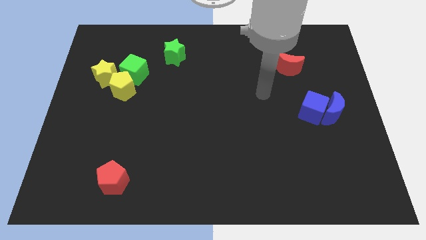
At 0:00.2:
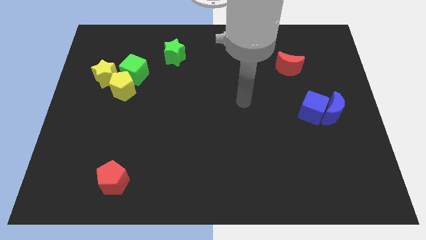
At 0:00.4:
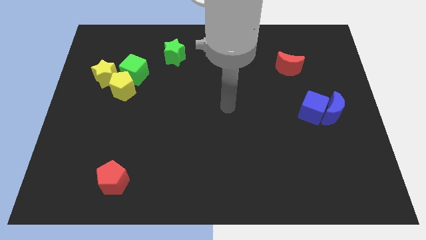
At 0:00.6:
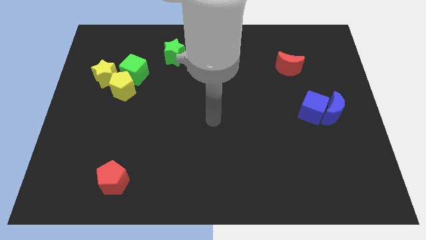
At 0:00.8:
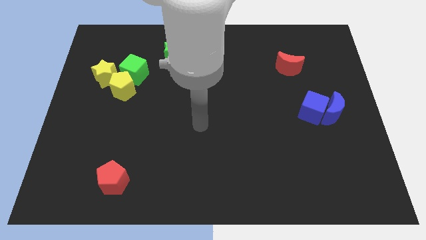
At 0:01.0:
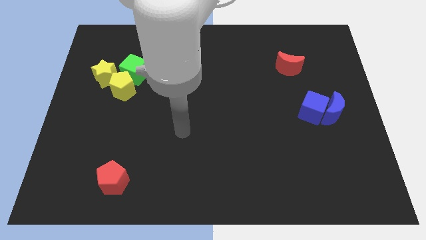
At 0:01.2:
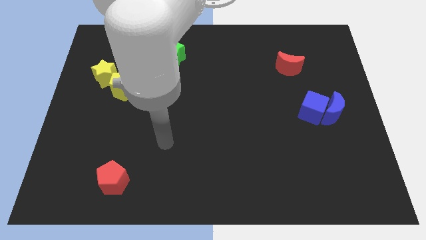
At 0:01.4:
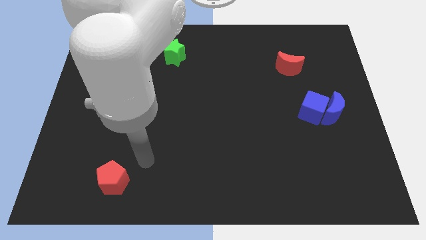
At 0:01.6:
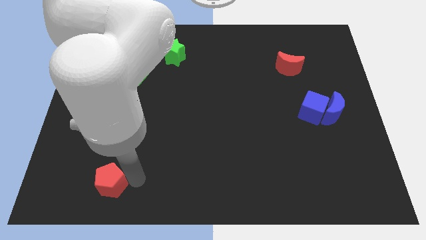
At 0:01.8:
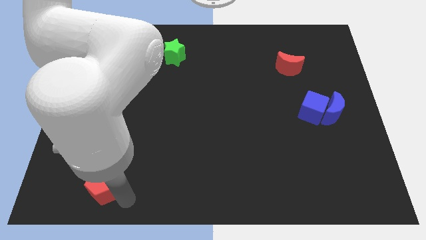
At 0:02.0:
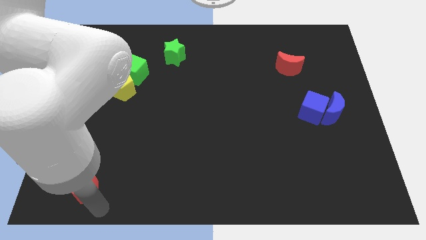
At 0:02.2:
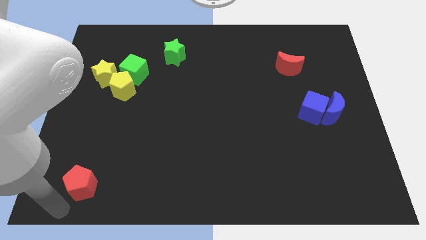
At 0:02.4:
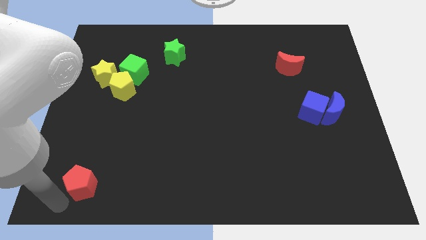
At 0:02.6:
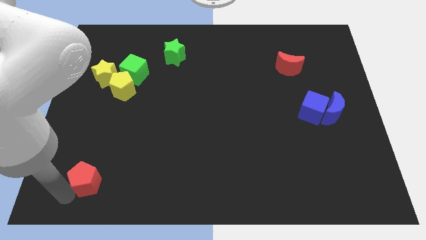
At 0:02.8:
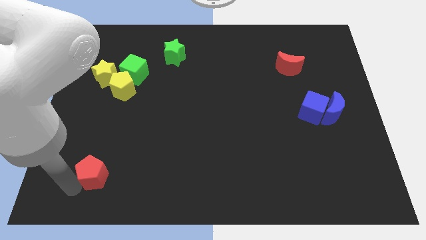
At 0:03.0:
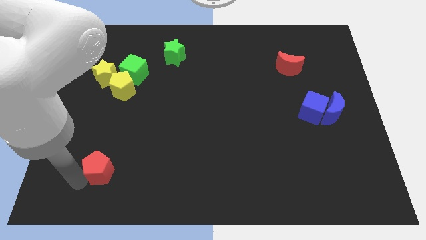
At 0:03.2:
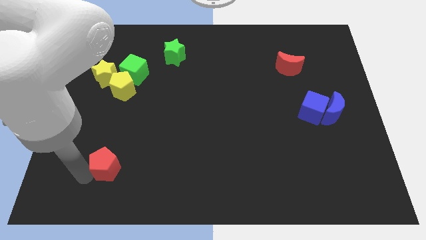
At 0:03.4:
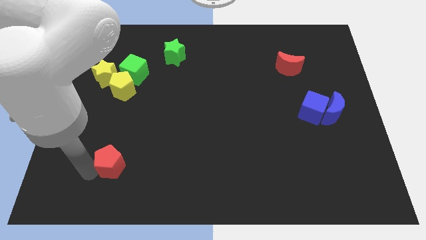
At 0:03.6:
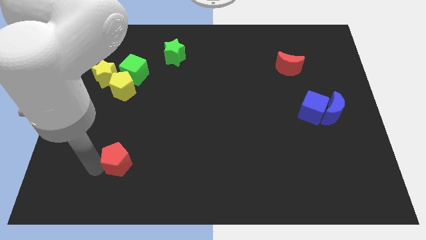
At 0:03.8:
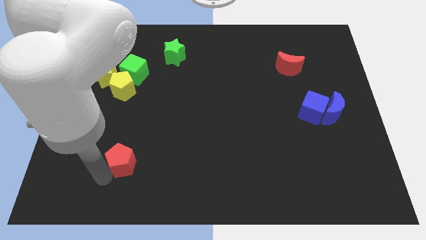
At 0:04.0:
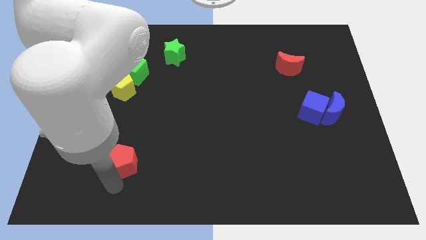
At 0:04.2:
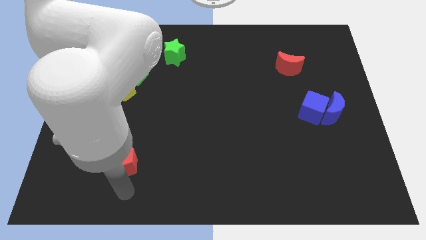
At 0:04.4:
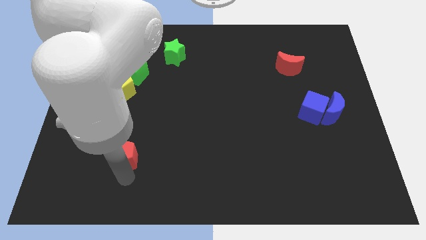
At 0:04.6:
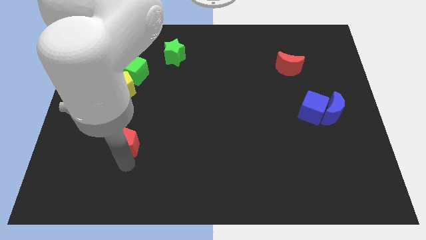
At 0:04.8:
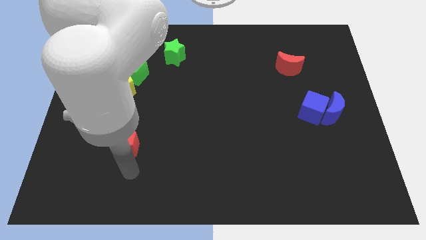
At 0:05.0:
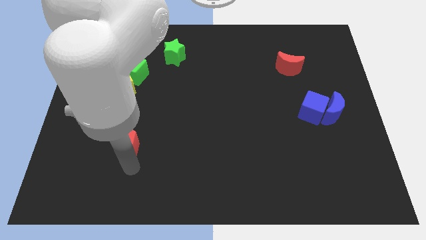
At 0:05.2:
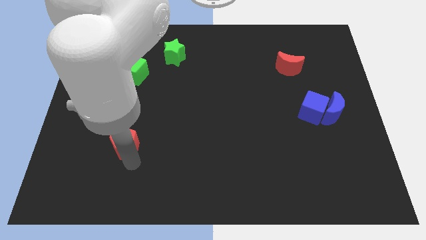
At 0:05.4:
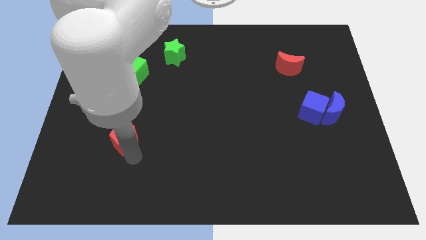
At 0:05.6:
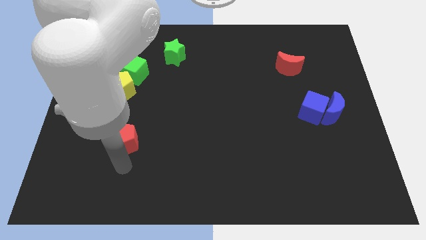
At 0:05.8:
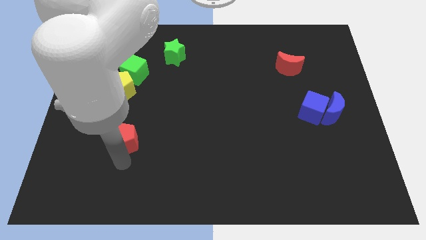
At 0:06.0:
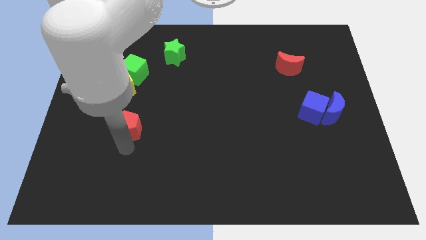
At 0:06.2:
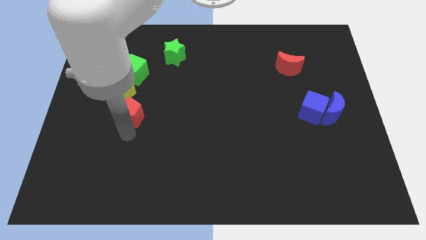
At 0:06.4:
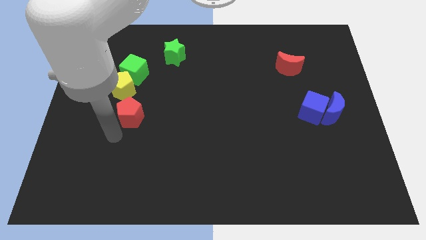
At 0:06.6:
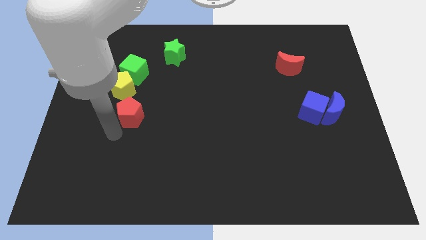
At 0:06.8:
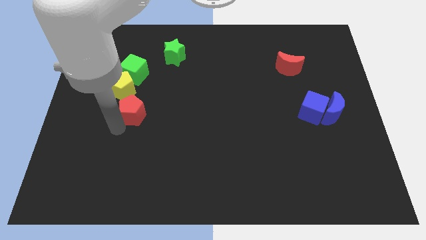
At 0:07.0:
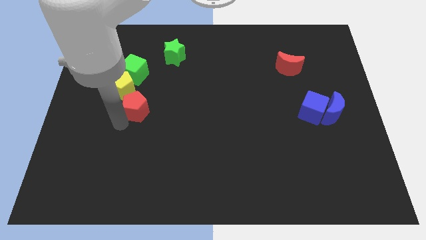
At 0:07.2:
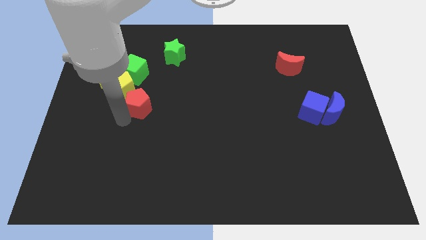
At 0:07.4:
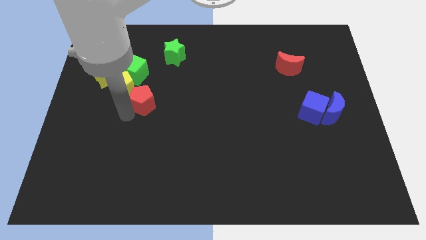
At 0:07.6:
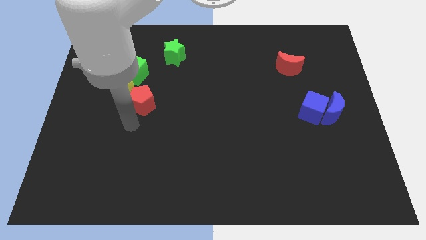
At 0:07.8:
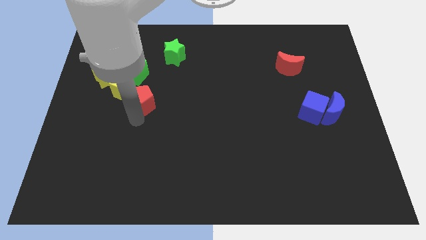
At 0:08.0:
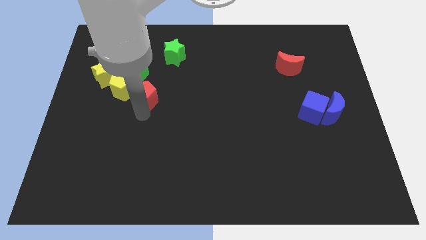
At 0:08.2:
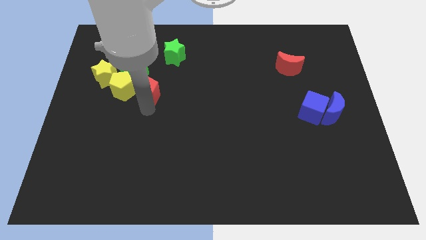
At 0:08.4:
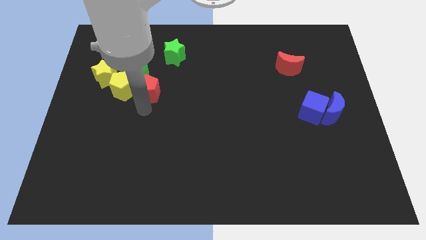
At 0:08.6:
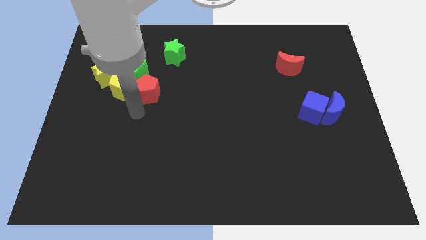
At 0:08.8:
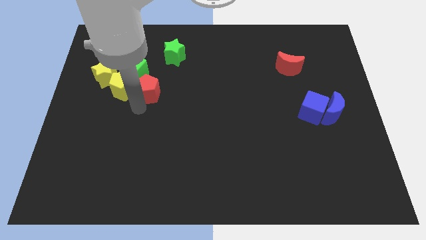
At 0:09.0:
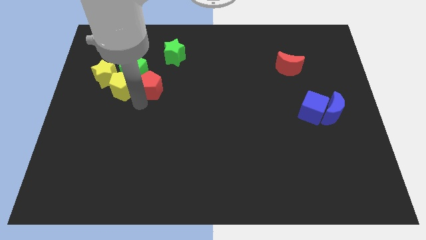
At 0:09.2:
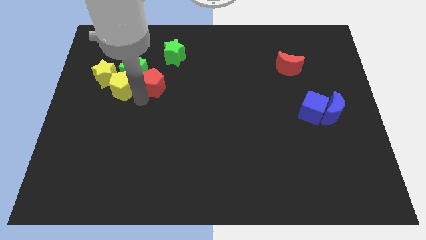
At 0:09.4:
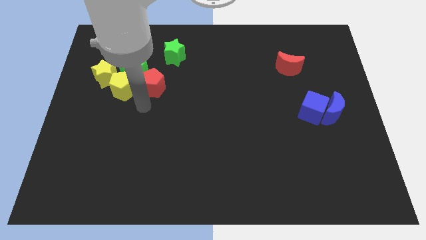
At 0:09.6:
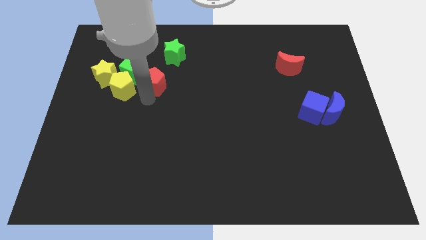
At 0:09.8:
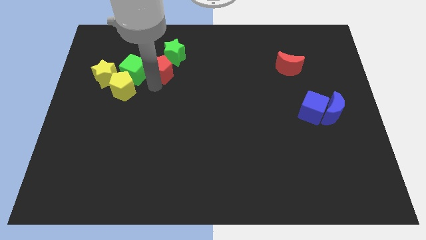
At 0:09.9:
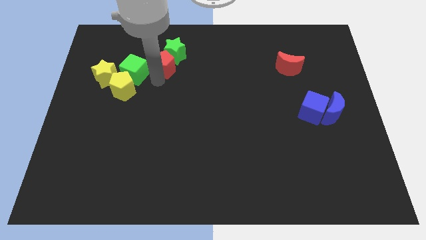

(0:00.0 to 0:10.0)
push the red pentagon to the green star

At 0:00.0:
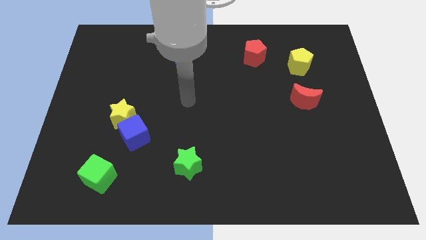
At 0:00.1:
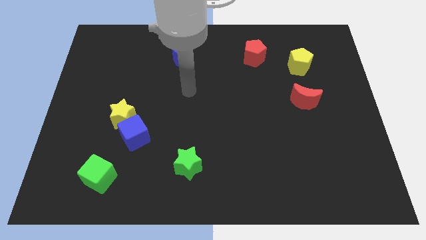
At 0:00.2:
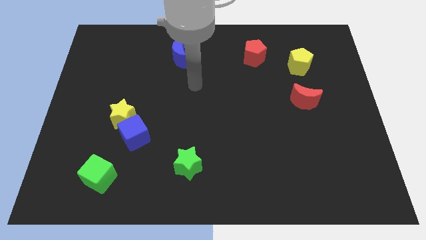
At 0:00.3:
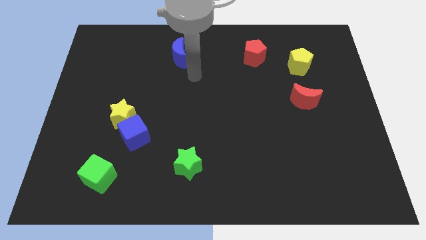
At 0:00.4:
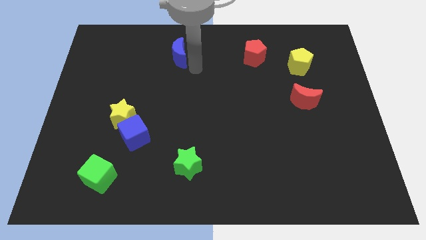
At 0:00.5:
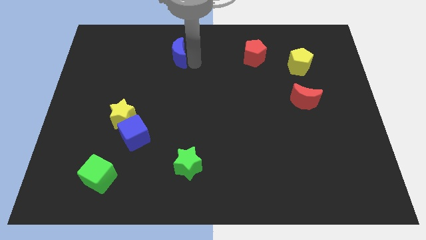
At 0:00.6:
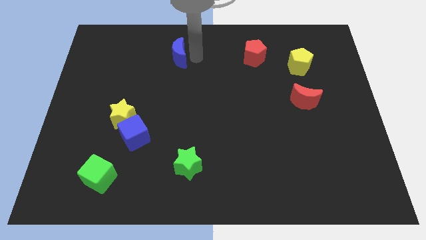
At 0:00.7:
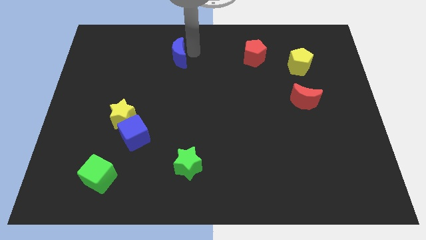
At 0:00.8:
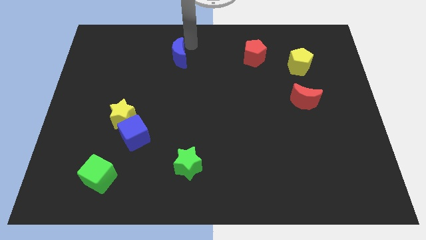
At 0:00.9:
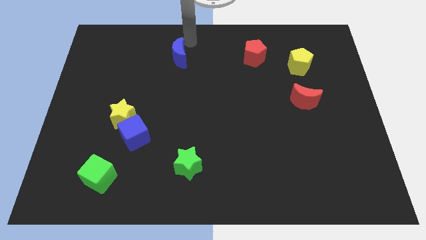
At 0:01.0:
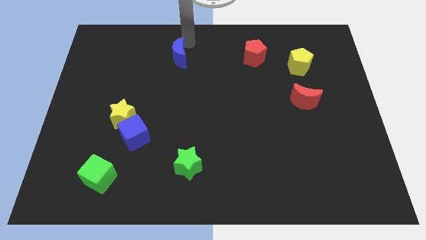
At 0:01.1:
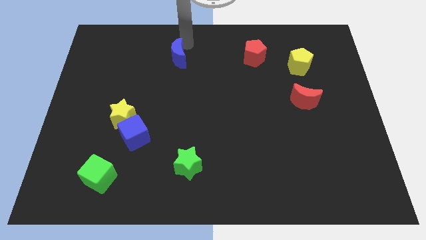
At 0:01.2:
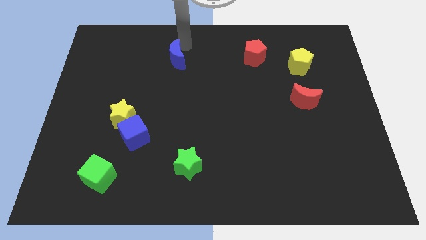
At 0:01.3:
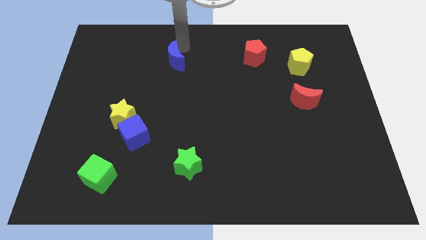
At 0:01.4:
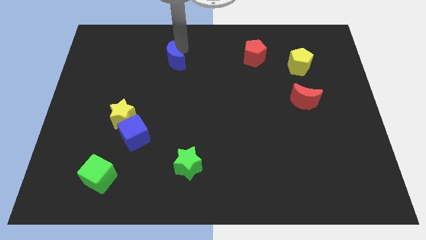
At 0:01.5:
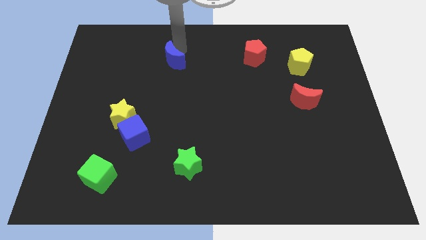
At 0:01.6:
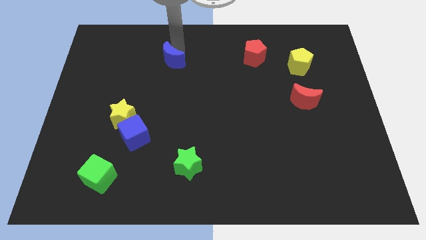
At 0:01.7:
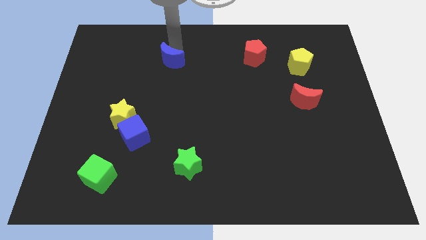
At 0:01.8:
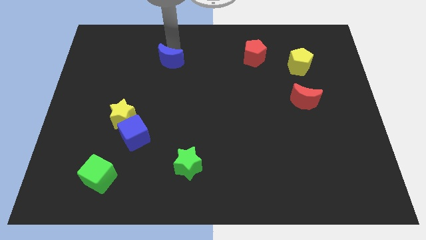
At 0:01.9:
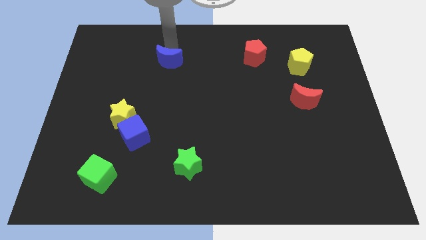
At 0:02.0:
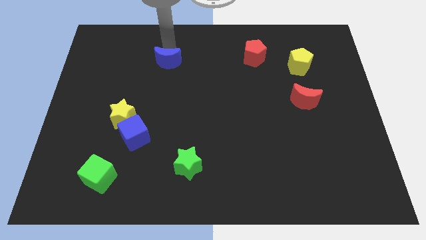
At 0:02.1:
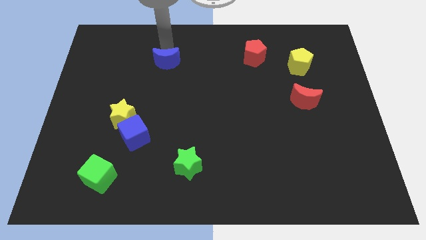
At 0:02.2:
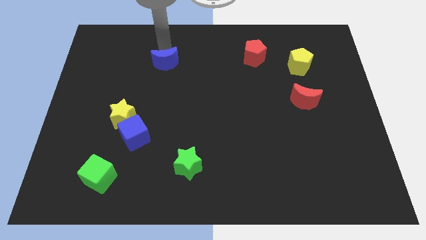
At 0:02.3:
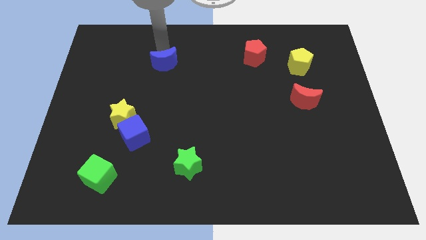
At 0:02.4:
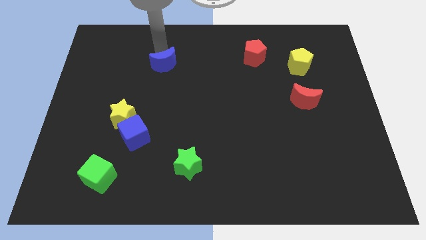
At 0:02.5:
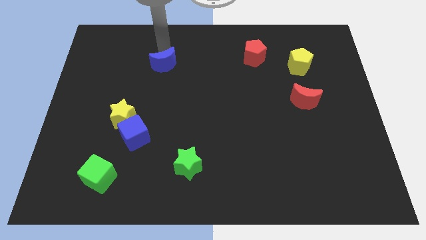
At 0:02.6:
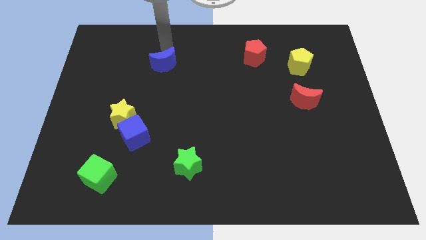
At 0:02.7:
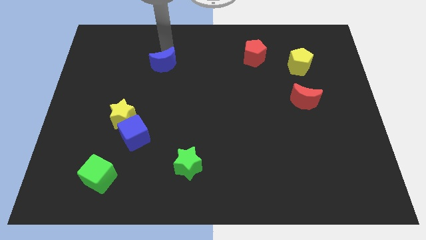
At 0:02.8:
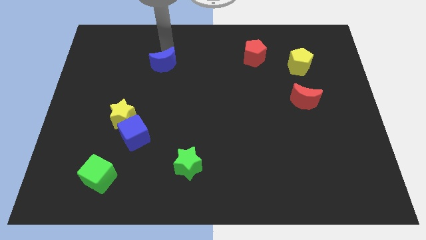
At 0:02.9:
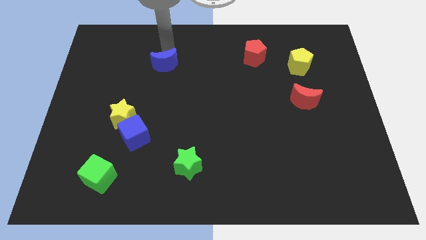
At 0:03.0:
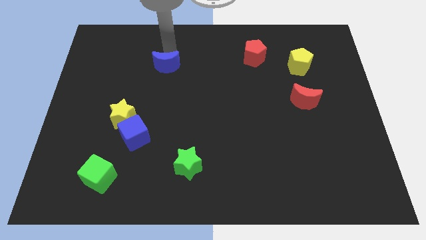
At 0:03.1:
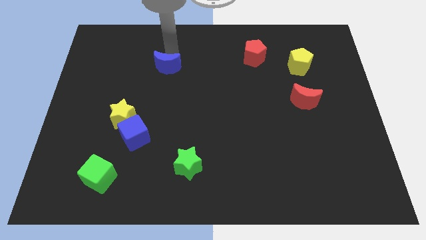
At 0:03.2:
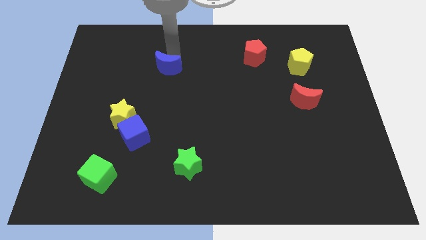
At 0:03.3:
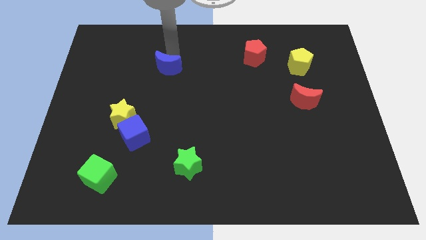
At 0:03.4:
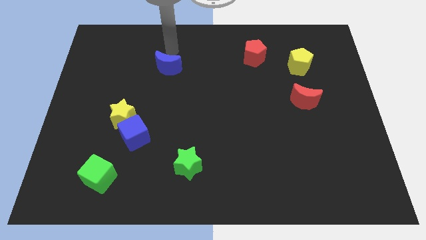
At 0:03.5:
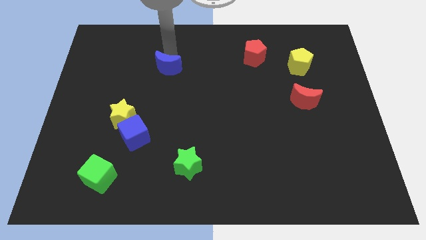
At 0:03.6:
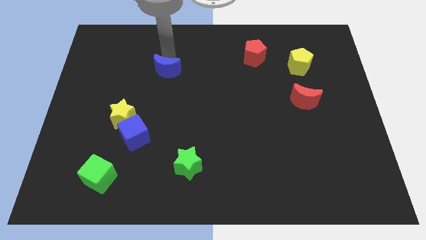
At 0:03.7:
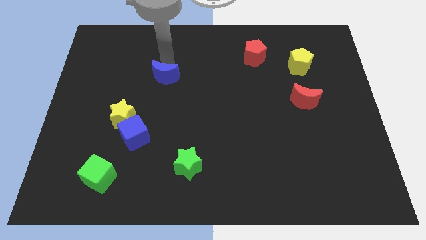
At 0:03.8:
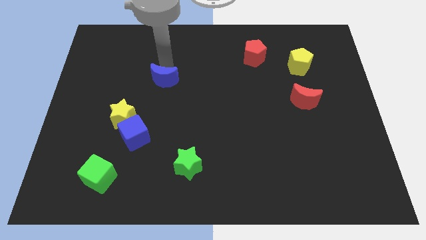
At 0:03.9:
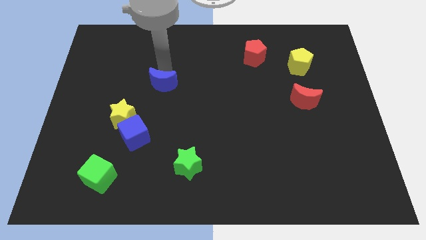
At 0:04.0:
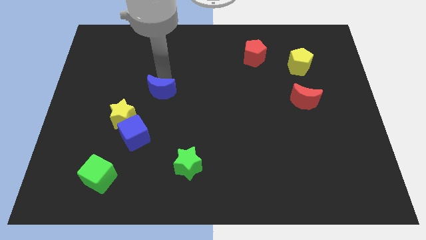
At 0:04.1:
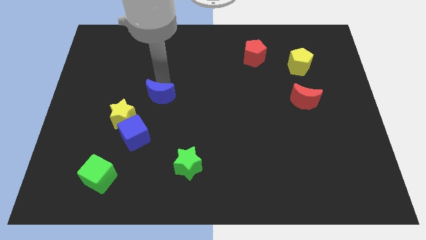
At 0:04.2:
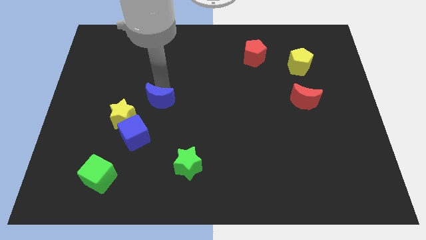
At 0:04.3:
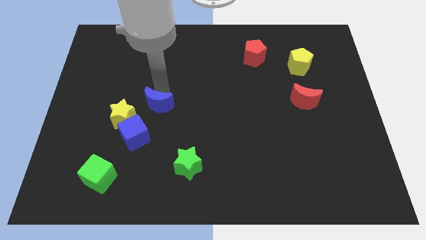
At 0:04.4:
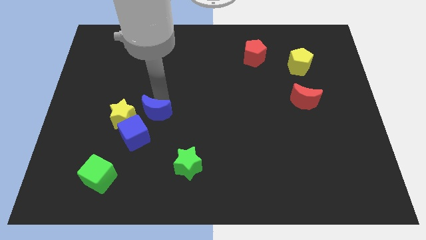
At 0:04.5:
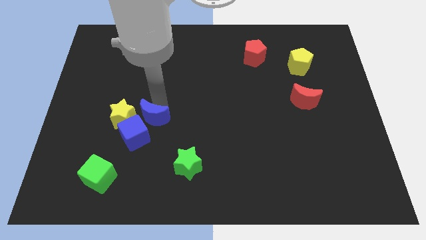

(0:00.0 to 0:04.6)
slide the blue moon towards the blue cube
